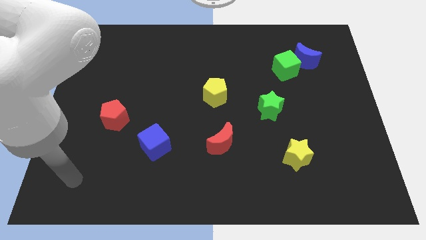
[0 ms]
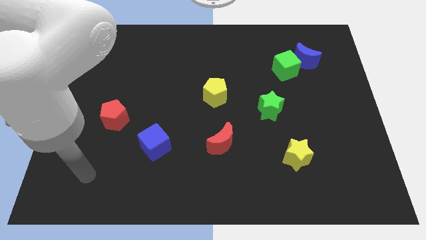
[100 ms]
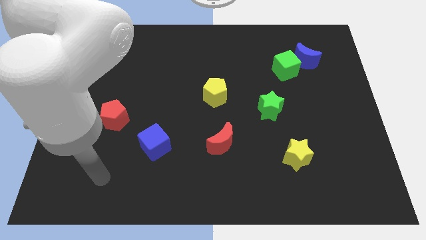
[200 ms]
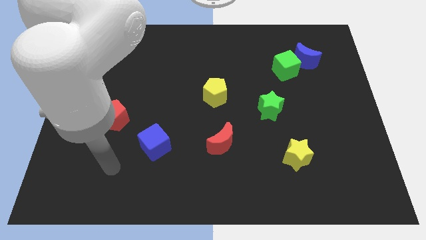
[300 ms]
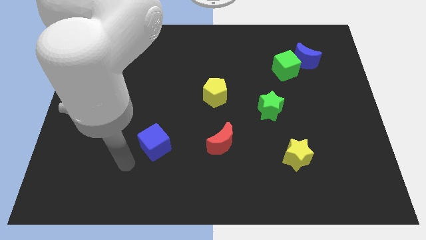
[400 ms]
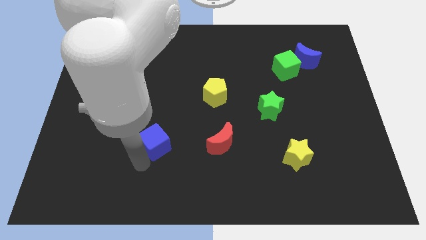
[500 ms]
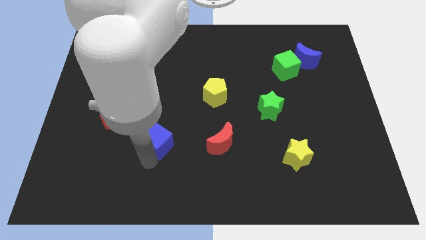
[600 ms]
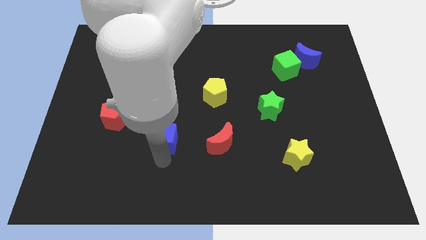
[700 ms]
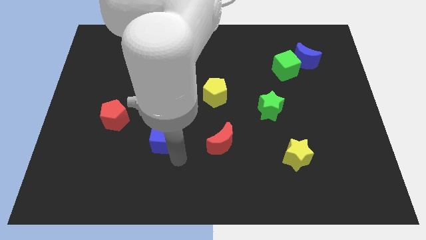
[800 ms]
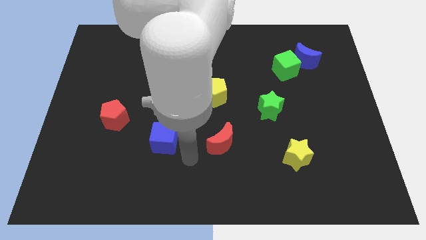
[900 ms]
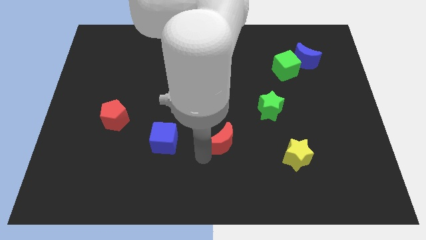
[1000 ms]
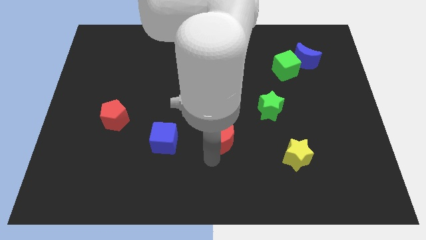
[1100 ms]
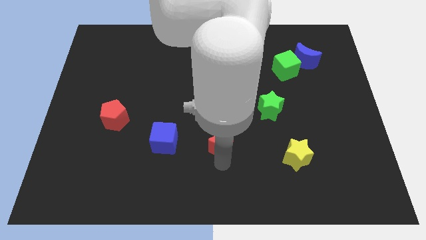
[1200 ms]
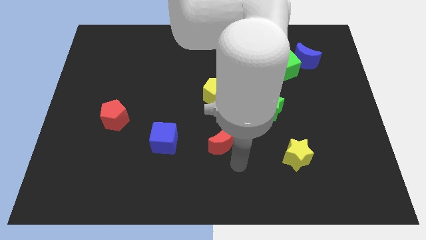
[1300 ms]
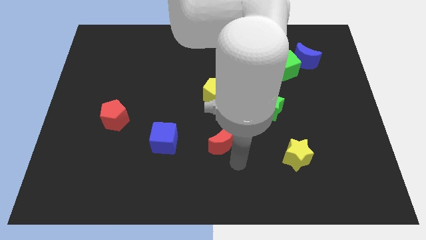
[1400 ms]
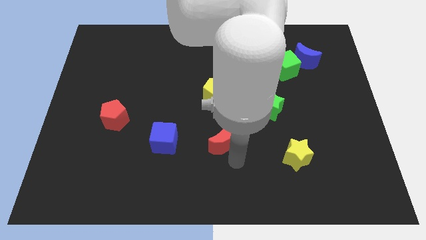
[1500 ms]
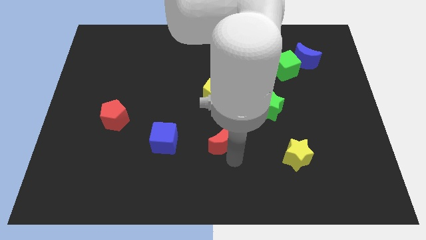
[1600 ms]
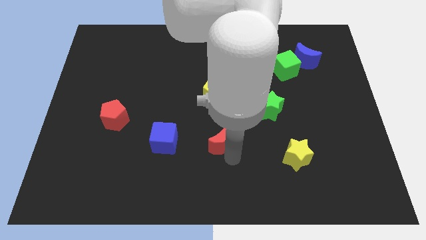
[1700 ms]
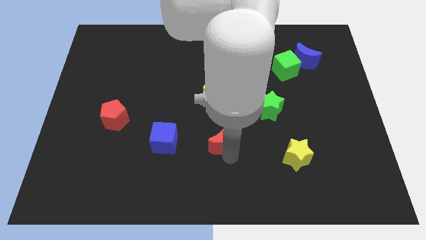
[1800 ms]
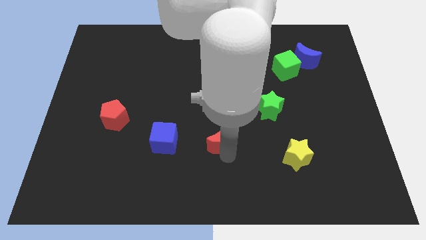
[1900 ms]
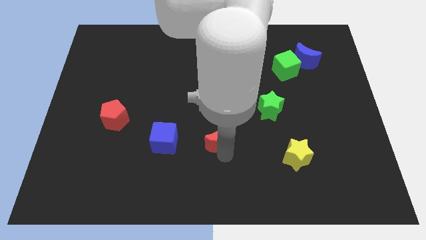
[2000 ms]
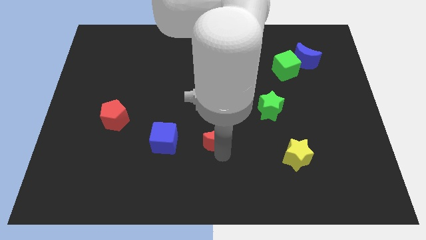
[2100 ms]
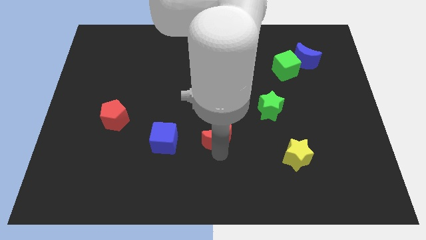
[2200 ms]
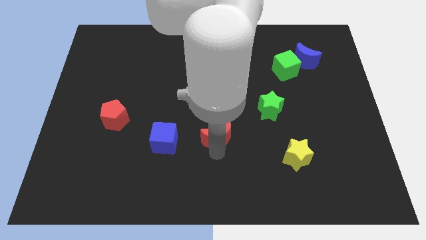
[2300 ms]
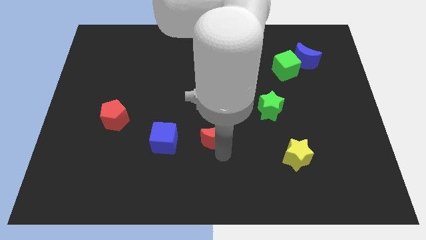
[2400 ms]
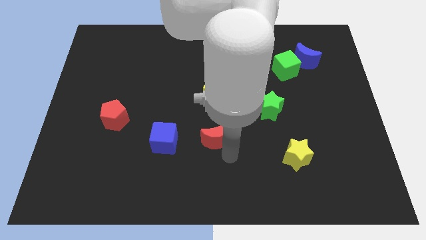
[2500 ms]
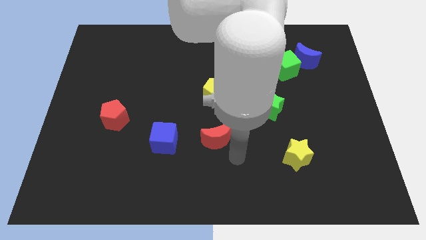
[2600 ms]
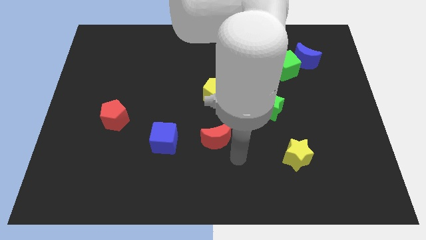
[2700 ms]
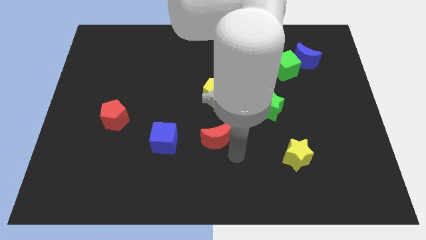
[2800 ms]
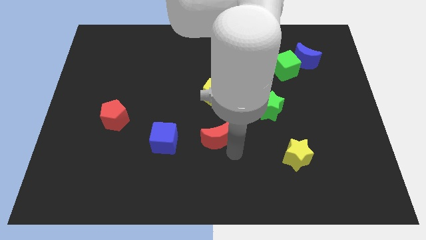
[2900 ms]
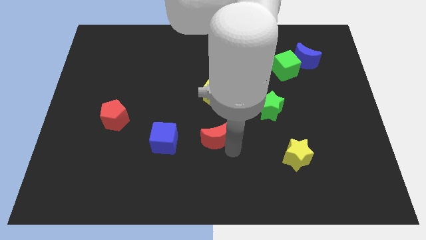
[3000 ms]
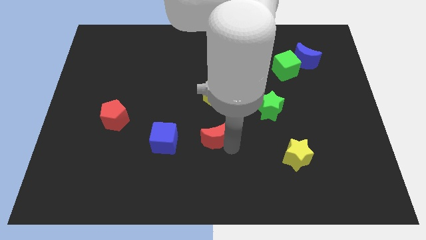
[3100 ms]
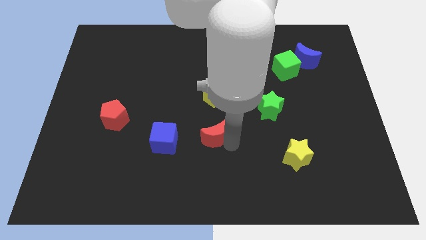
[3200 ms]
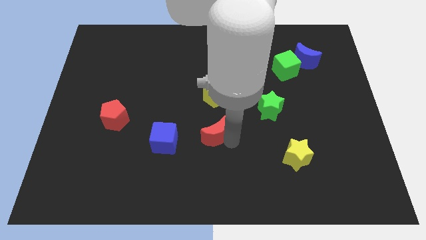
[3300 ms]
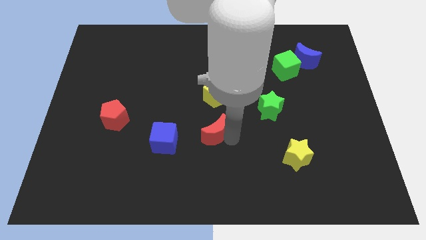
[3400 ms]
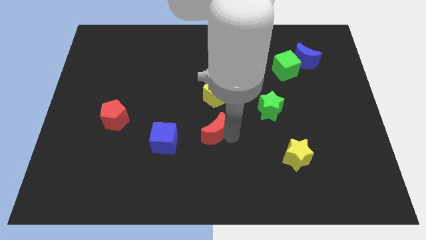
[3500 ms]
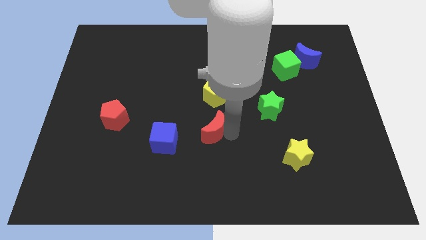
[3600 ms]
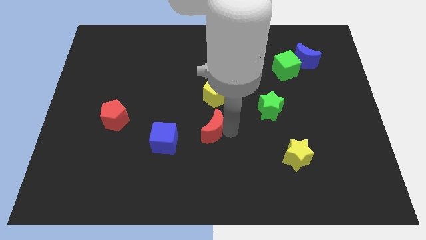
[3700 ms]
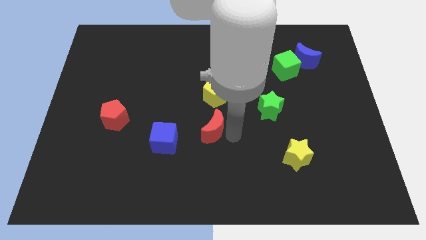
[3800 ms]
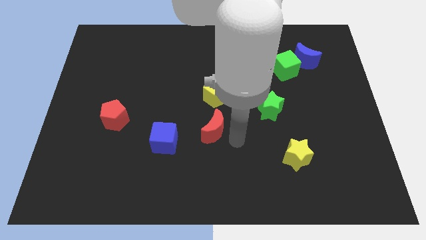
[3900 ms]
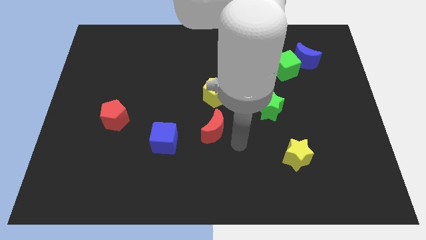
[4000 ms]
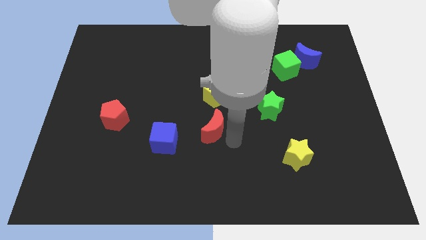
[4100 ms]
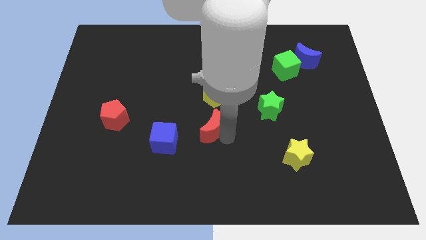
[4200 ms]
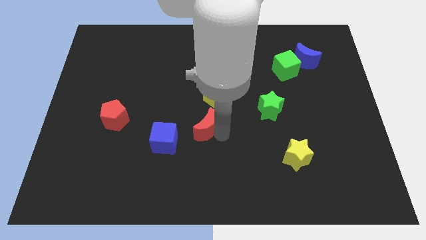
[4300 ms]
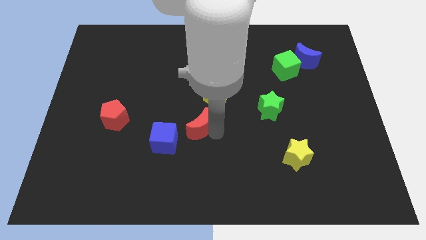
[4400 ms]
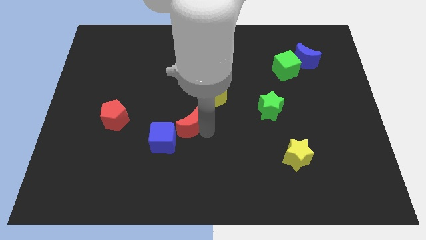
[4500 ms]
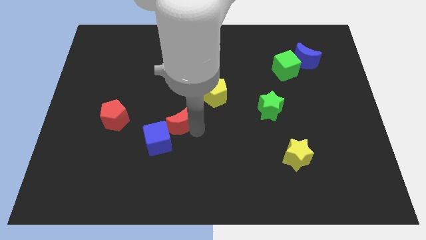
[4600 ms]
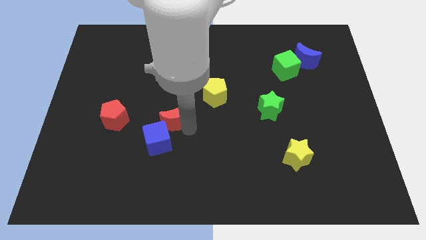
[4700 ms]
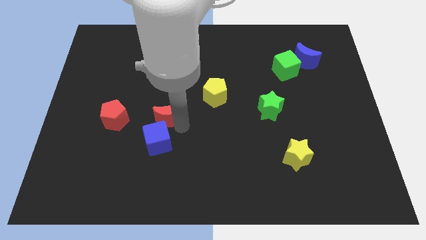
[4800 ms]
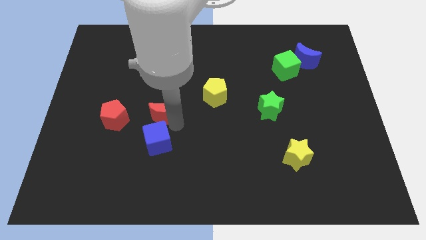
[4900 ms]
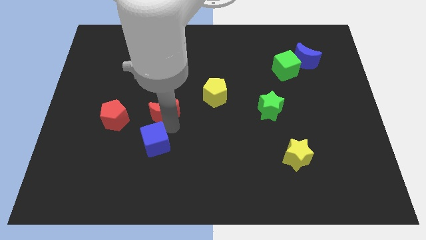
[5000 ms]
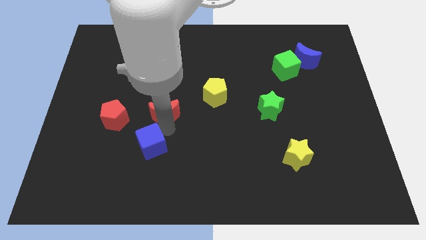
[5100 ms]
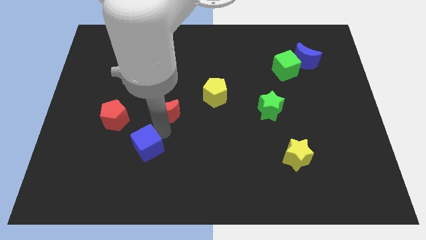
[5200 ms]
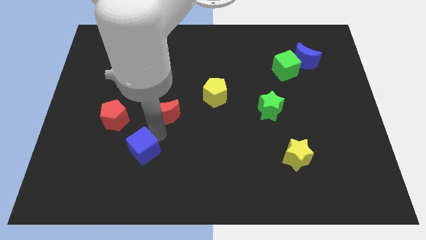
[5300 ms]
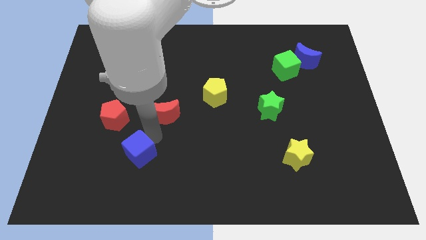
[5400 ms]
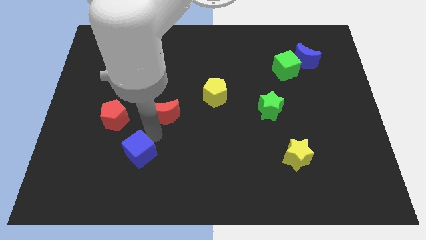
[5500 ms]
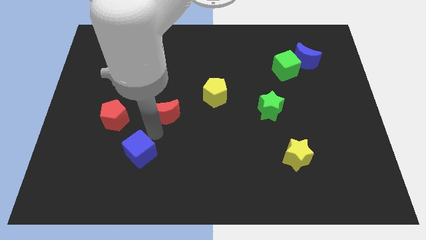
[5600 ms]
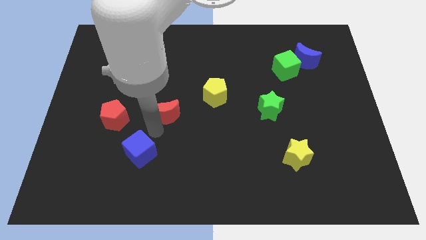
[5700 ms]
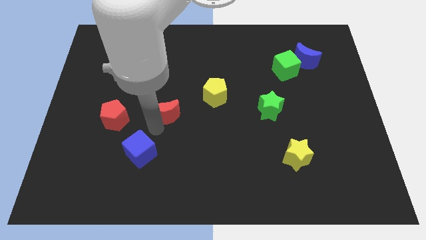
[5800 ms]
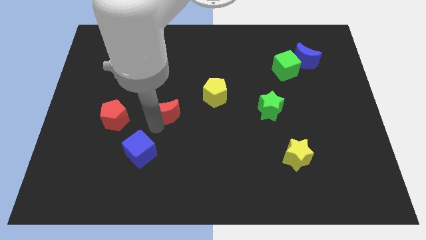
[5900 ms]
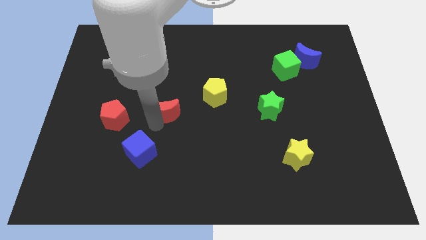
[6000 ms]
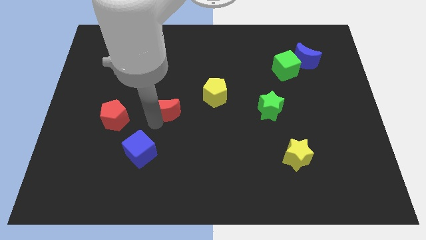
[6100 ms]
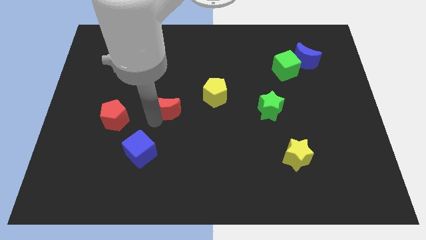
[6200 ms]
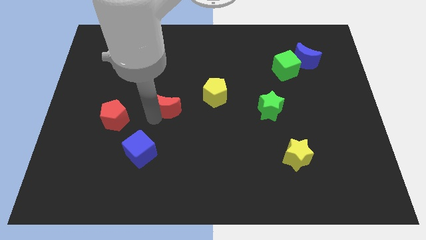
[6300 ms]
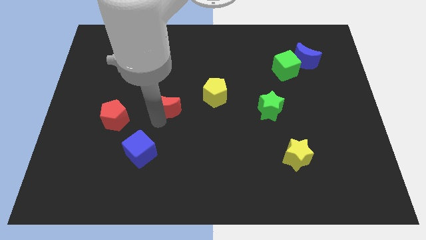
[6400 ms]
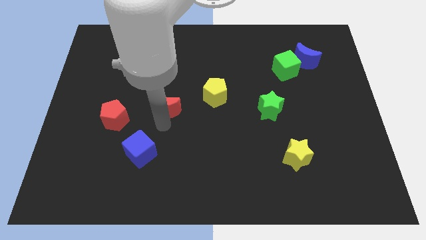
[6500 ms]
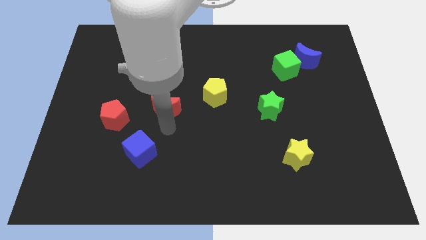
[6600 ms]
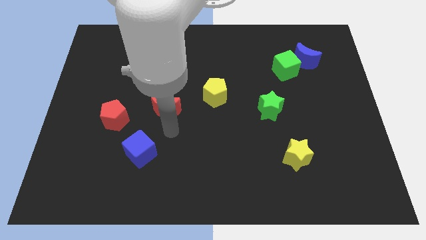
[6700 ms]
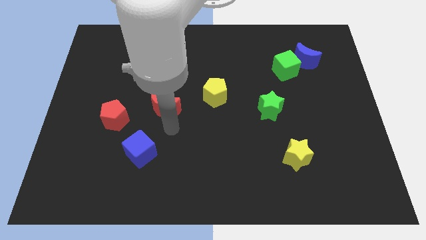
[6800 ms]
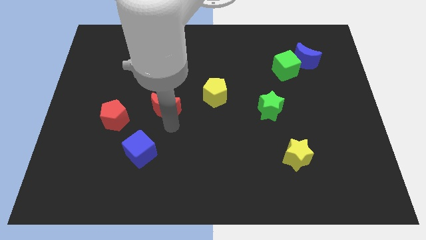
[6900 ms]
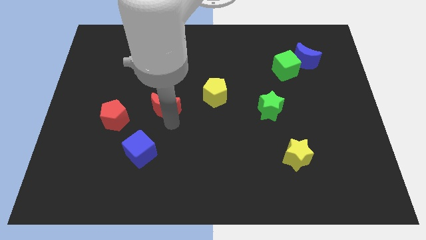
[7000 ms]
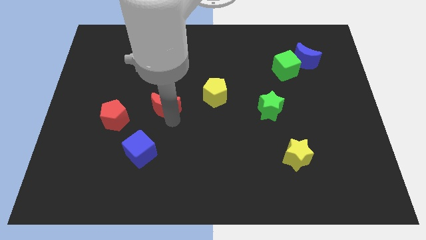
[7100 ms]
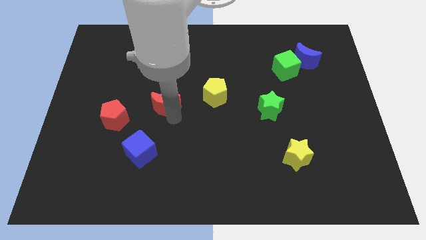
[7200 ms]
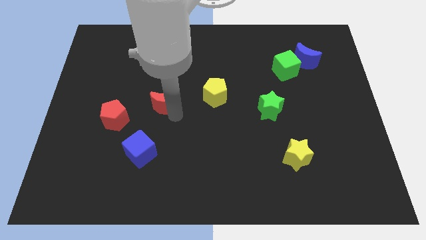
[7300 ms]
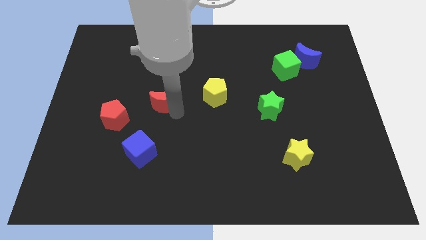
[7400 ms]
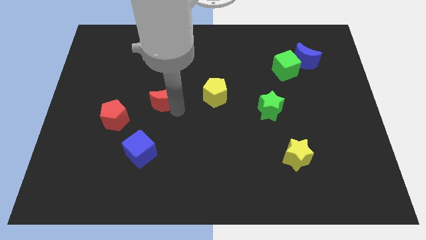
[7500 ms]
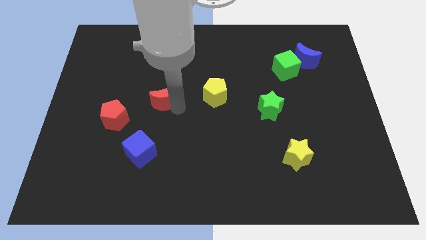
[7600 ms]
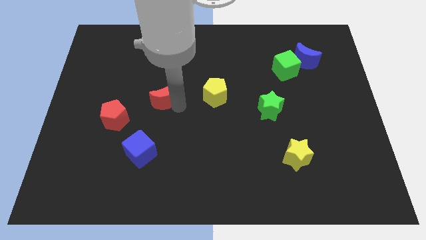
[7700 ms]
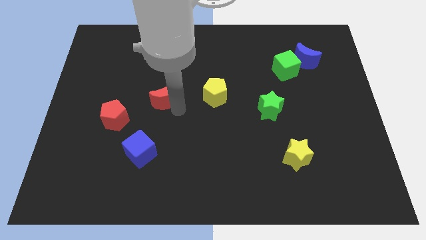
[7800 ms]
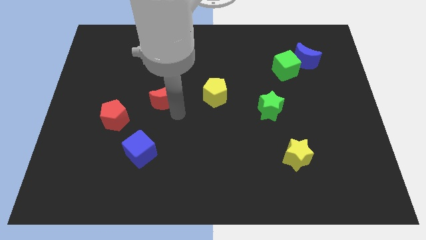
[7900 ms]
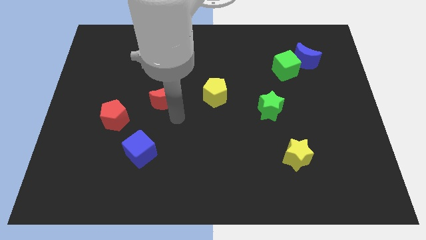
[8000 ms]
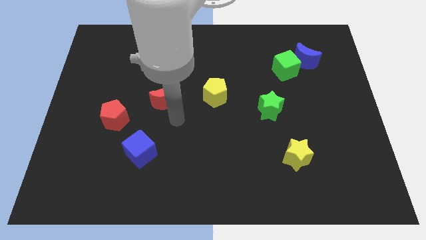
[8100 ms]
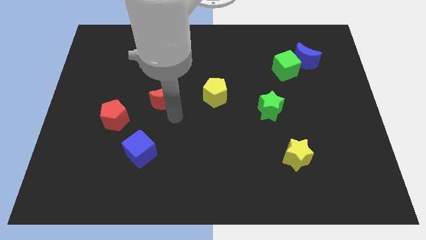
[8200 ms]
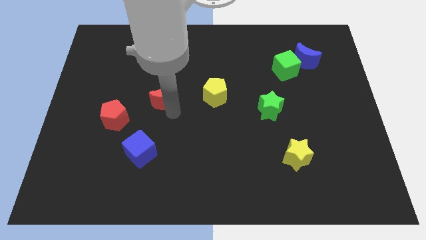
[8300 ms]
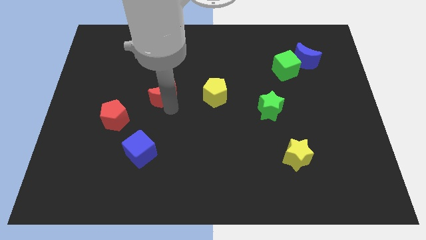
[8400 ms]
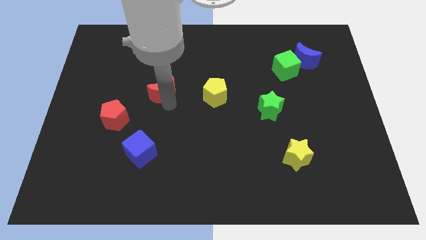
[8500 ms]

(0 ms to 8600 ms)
push the red moon upwards and then left
